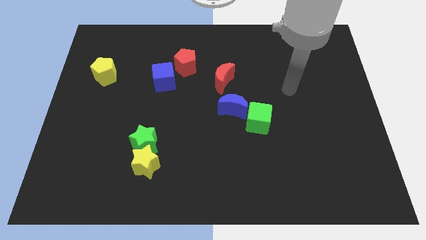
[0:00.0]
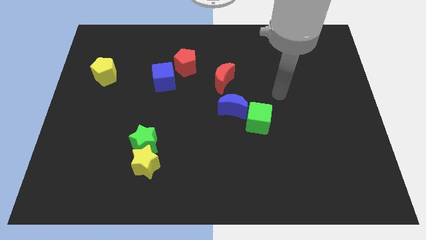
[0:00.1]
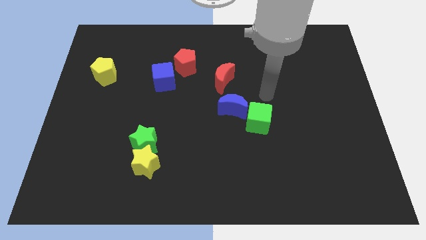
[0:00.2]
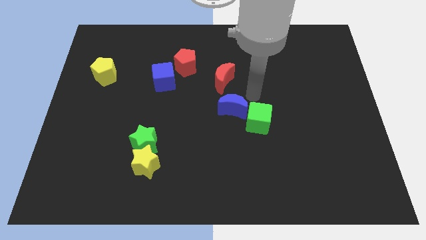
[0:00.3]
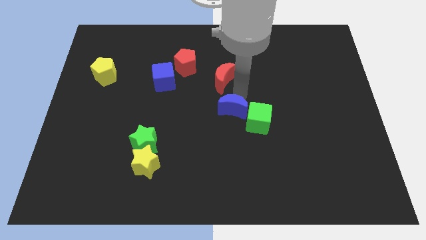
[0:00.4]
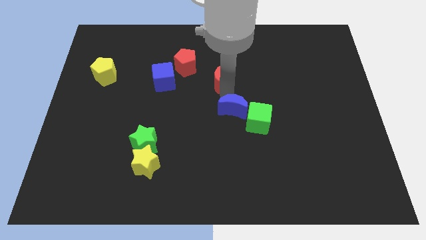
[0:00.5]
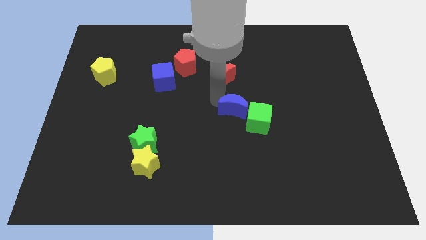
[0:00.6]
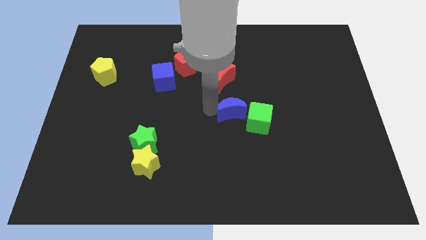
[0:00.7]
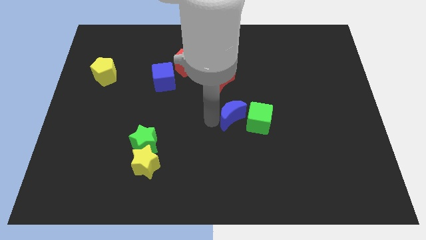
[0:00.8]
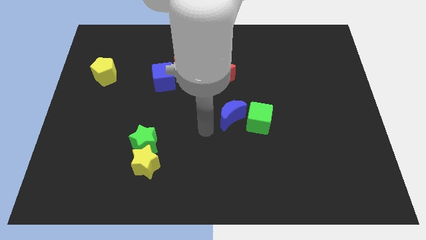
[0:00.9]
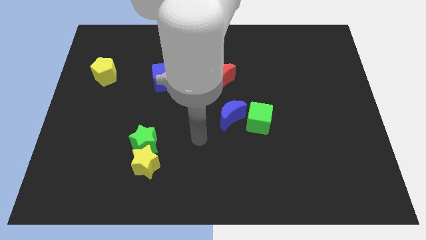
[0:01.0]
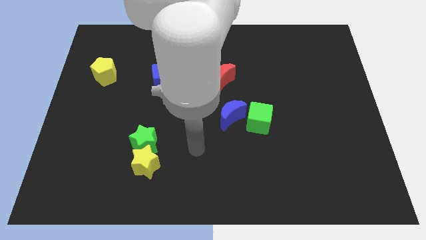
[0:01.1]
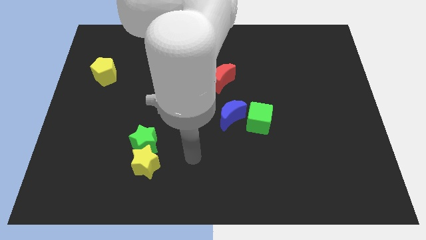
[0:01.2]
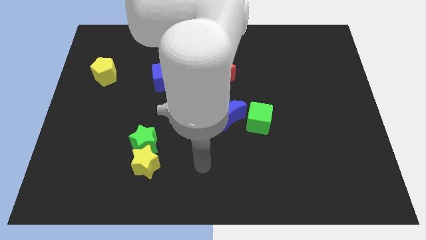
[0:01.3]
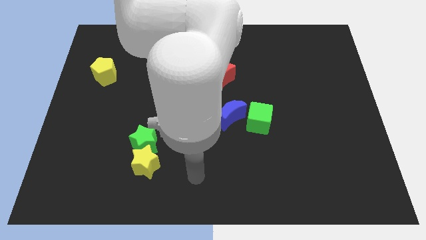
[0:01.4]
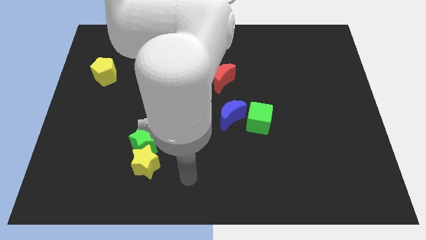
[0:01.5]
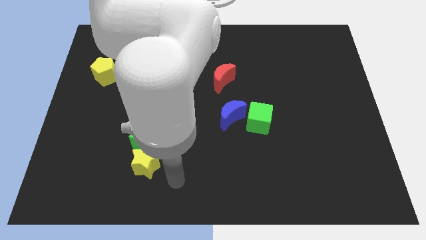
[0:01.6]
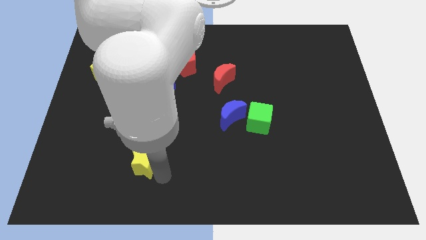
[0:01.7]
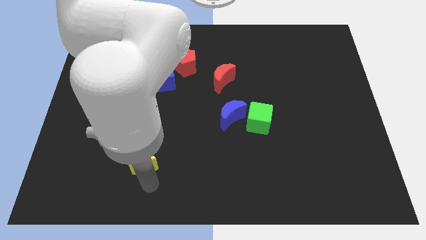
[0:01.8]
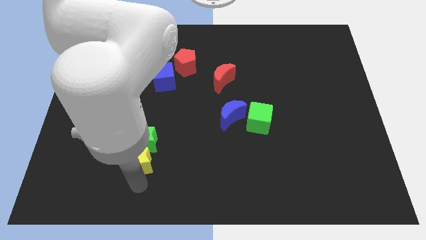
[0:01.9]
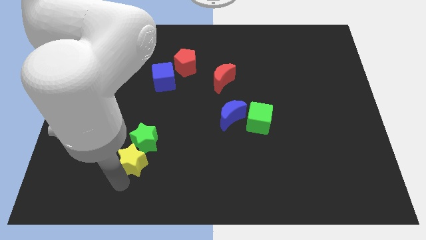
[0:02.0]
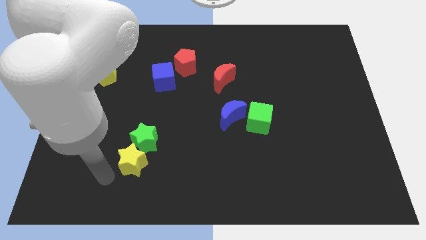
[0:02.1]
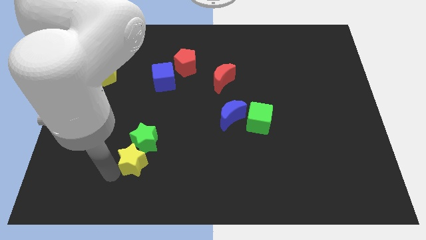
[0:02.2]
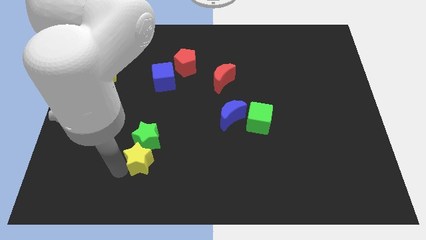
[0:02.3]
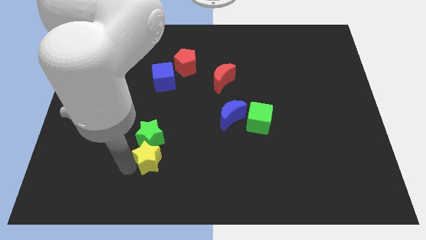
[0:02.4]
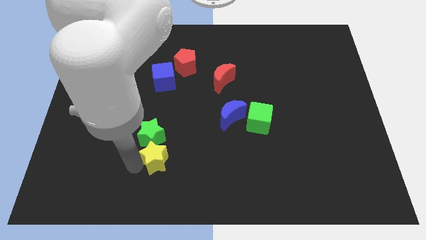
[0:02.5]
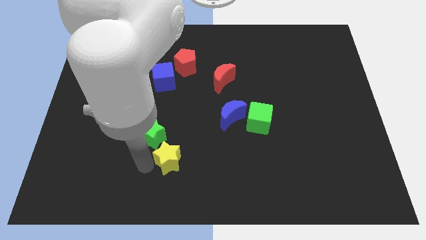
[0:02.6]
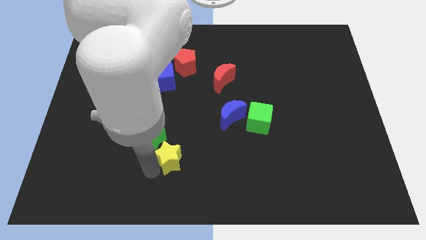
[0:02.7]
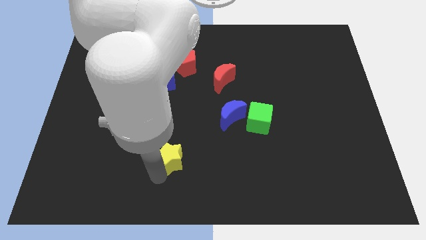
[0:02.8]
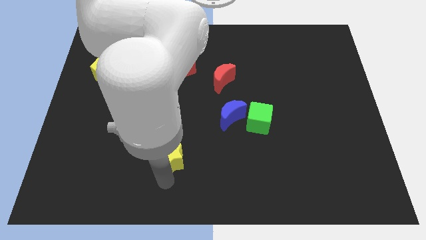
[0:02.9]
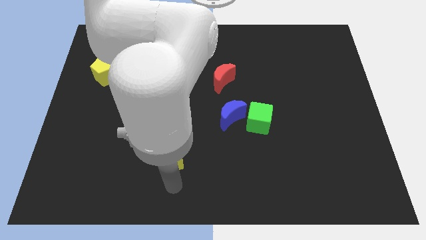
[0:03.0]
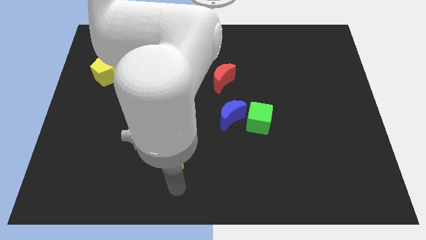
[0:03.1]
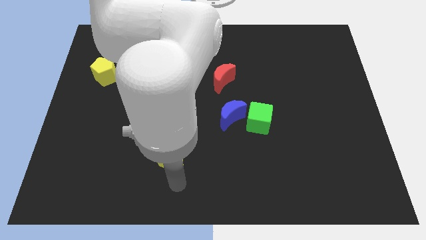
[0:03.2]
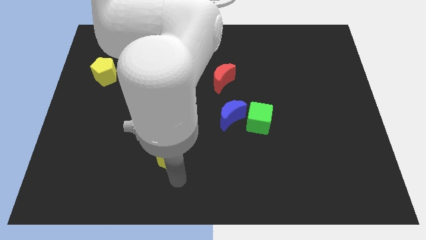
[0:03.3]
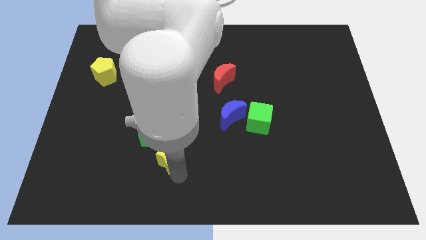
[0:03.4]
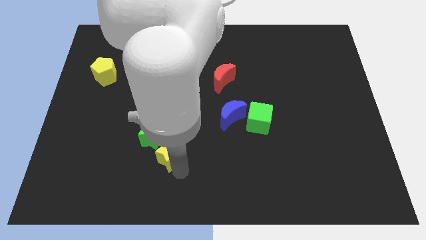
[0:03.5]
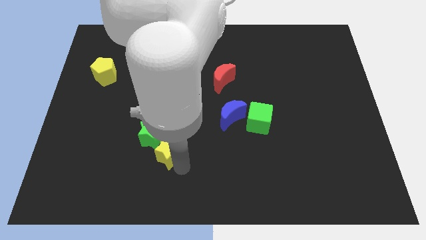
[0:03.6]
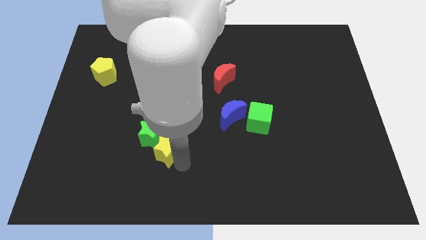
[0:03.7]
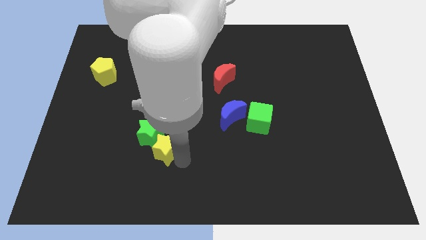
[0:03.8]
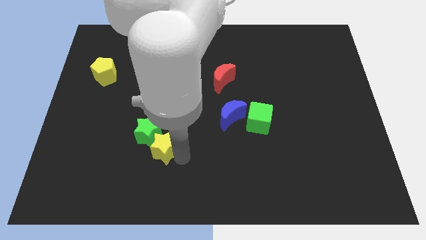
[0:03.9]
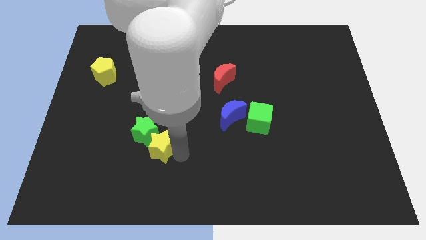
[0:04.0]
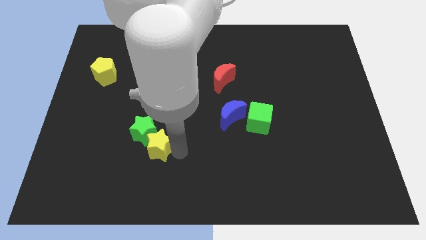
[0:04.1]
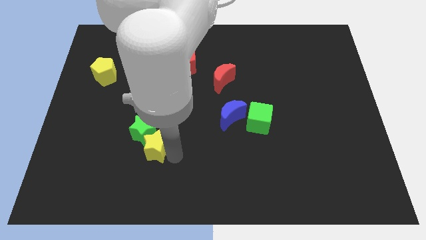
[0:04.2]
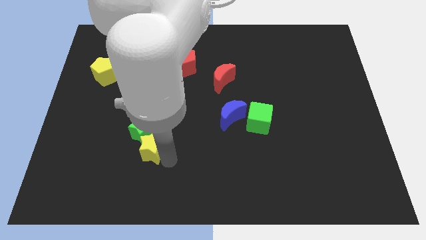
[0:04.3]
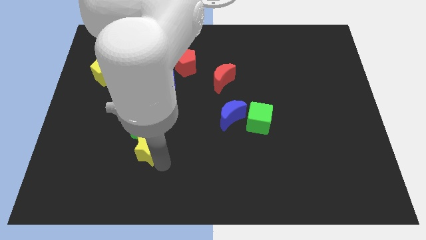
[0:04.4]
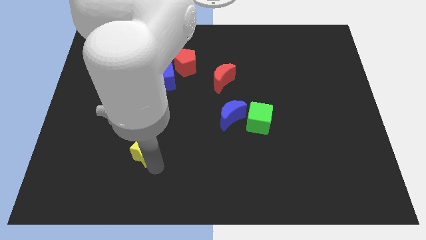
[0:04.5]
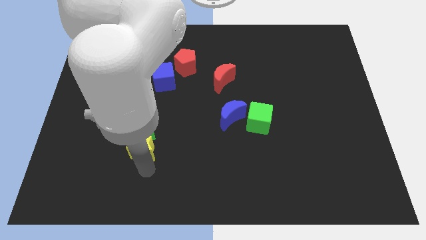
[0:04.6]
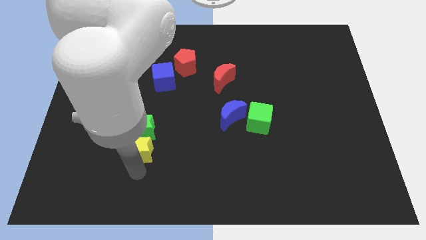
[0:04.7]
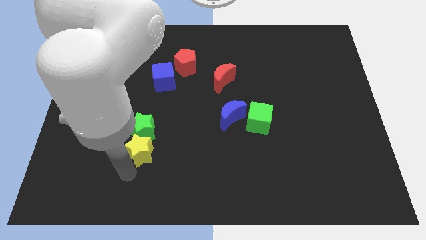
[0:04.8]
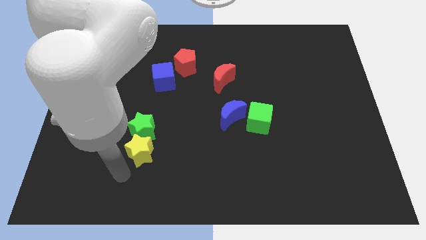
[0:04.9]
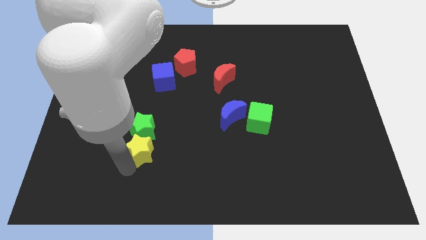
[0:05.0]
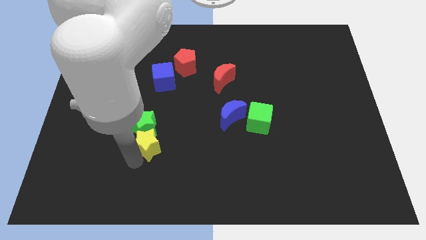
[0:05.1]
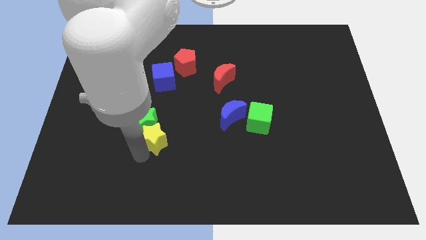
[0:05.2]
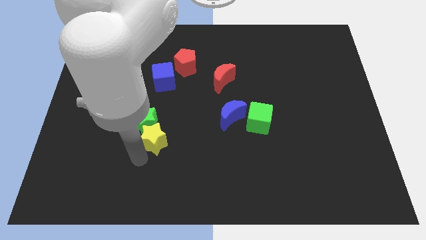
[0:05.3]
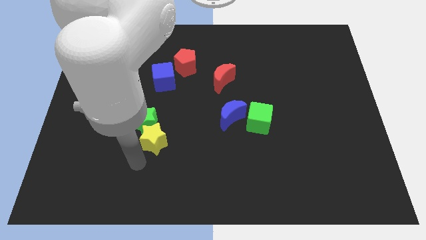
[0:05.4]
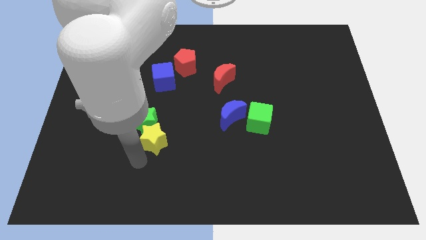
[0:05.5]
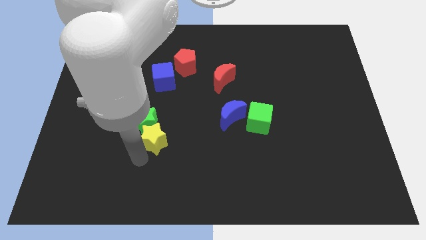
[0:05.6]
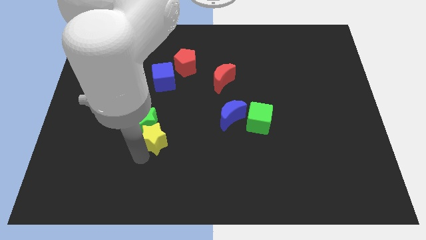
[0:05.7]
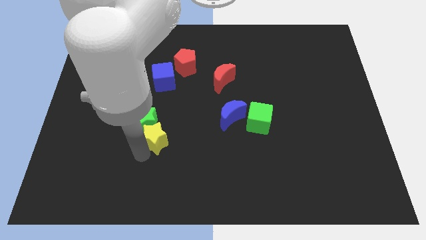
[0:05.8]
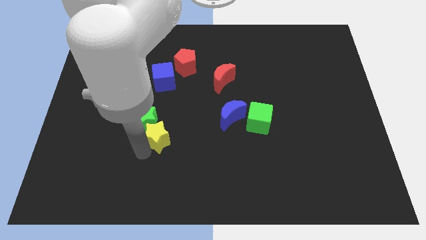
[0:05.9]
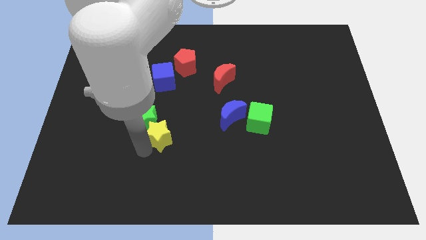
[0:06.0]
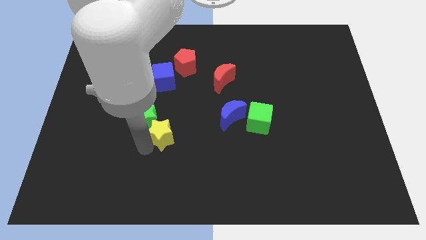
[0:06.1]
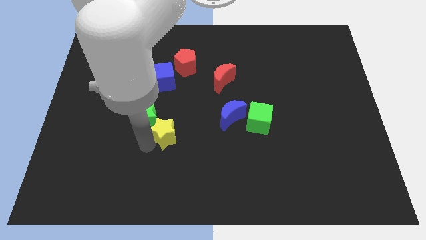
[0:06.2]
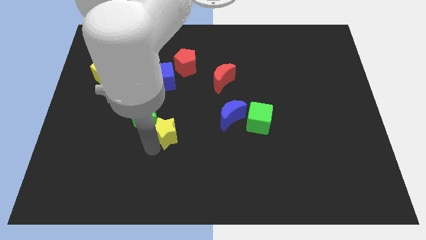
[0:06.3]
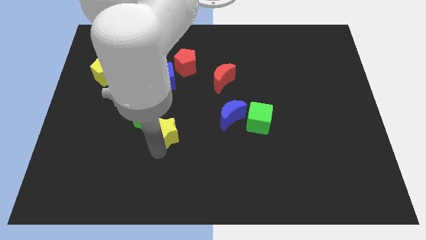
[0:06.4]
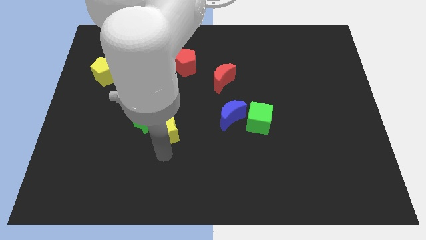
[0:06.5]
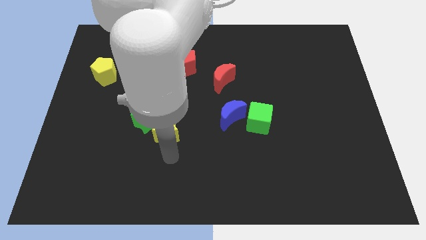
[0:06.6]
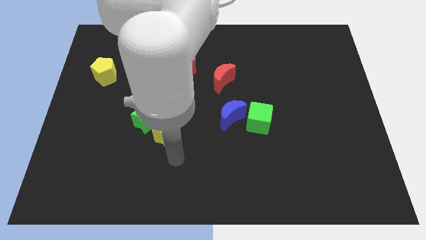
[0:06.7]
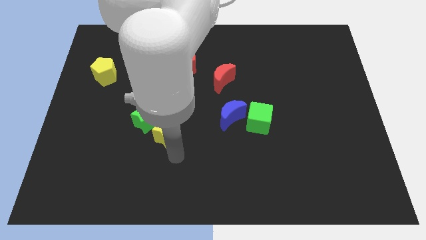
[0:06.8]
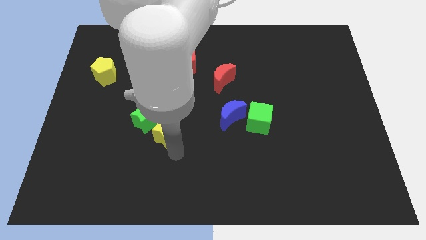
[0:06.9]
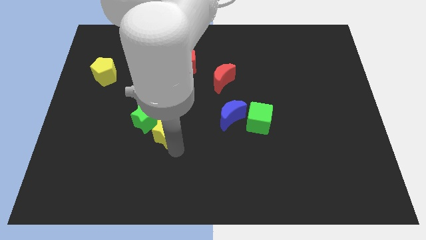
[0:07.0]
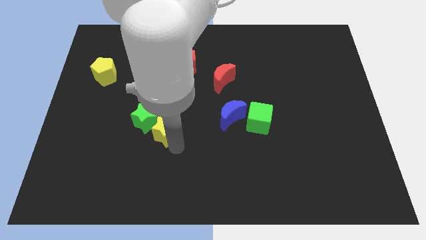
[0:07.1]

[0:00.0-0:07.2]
push the yellow star to the bottom of the blue cube

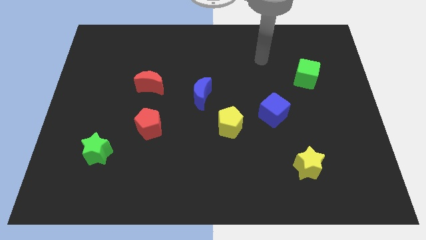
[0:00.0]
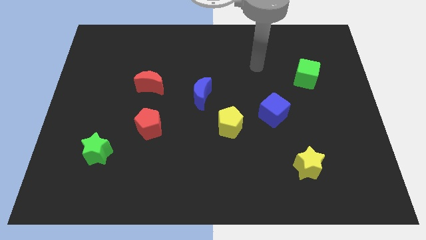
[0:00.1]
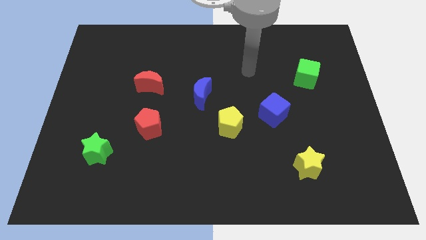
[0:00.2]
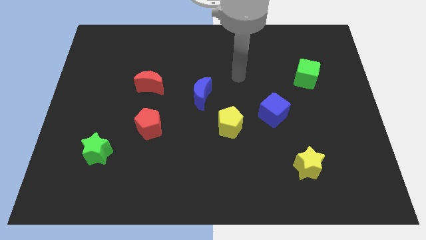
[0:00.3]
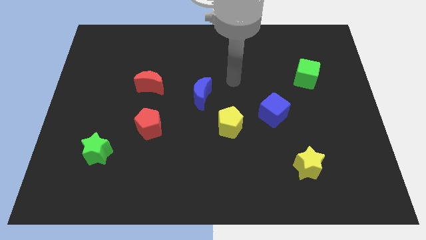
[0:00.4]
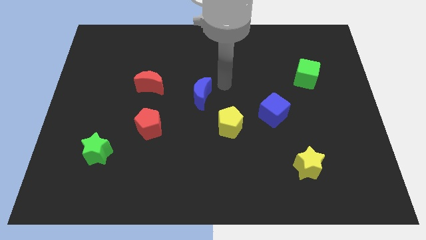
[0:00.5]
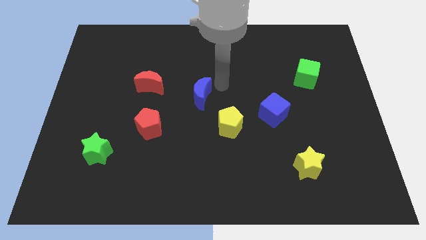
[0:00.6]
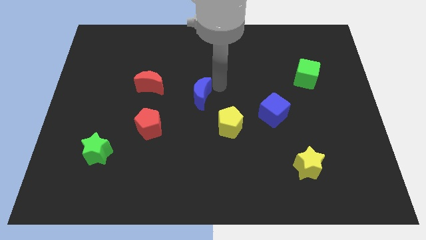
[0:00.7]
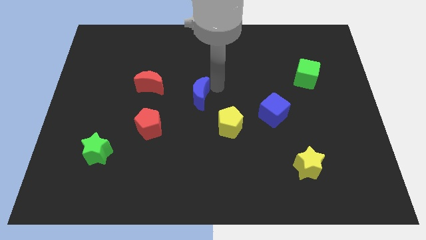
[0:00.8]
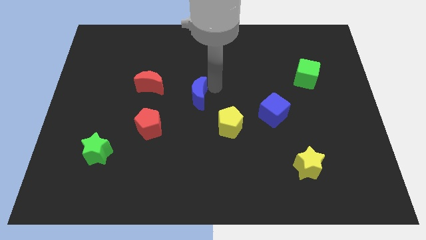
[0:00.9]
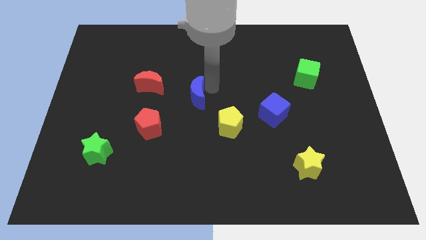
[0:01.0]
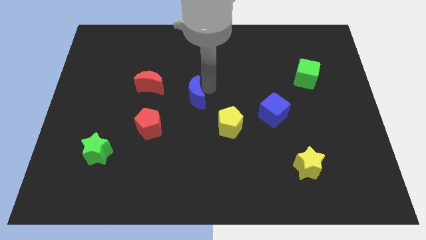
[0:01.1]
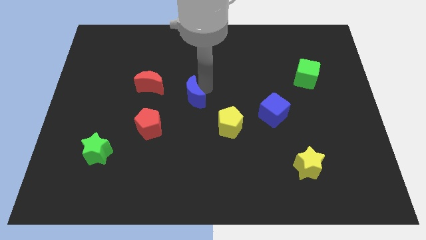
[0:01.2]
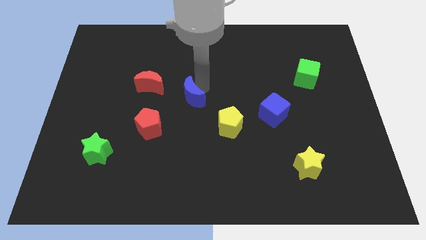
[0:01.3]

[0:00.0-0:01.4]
slide the blue moon diagonally up and to the right of the red pentagon
